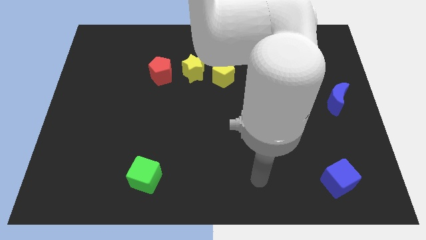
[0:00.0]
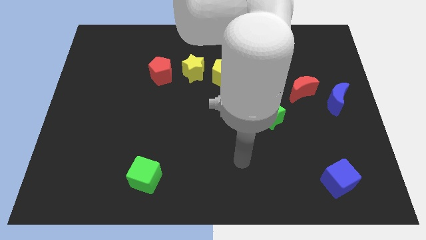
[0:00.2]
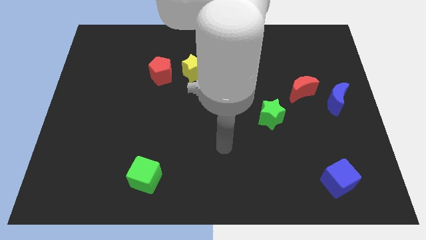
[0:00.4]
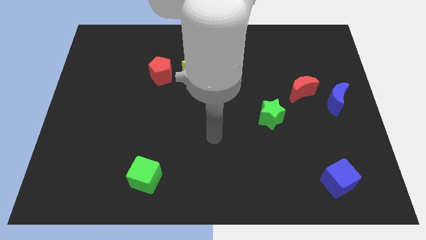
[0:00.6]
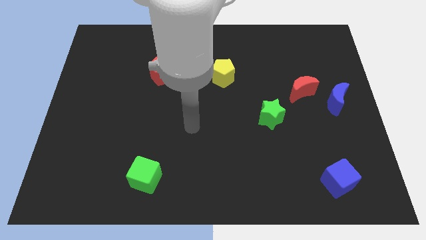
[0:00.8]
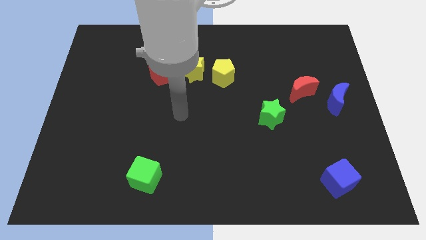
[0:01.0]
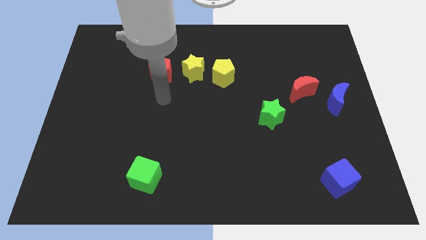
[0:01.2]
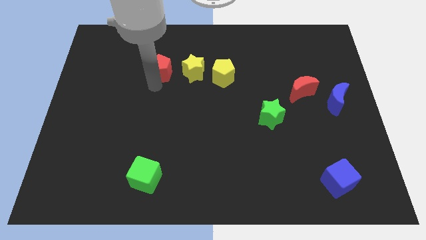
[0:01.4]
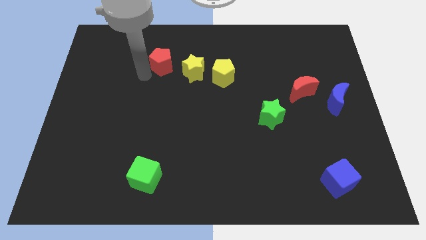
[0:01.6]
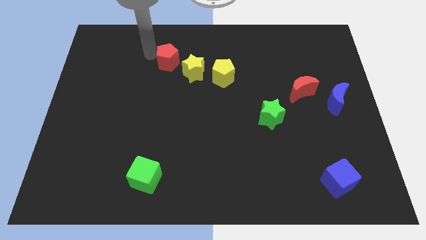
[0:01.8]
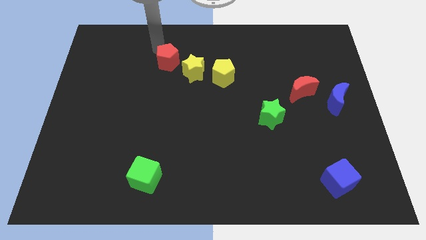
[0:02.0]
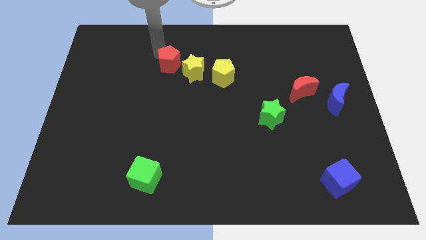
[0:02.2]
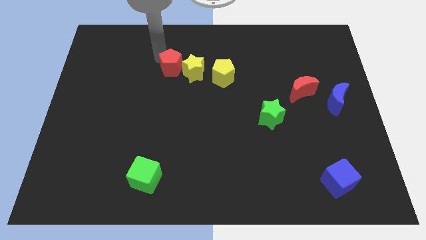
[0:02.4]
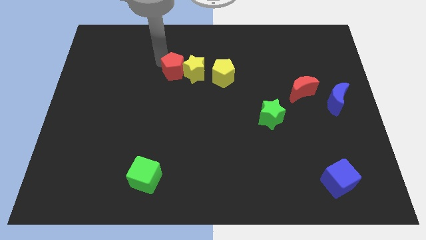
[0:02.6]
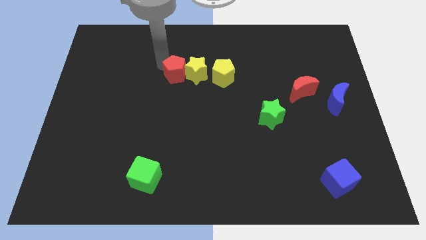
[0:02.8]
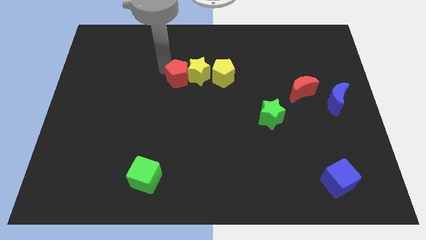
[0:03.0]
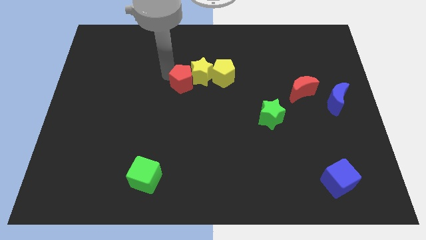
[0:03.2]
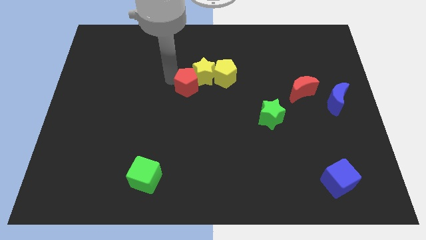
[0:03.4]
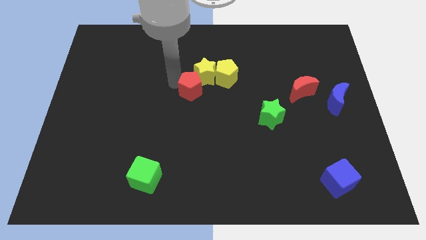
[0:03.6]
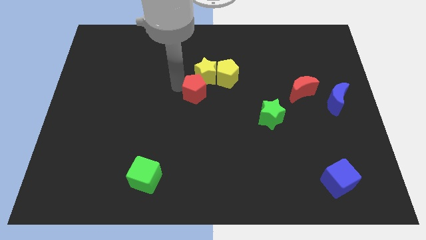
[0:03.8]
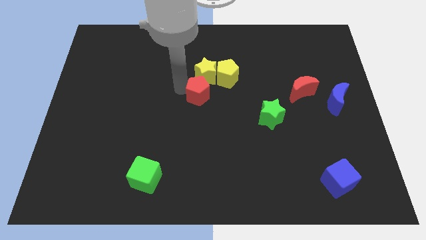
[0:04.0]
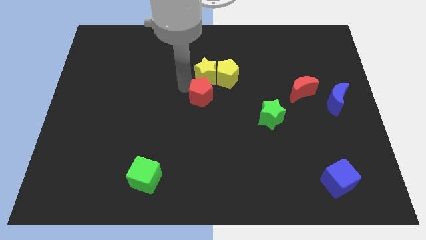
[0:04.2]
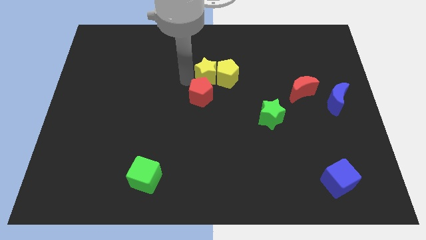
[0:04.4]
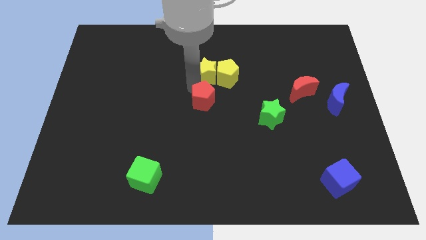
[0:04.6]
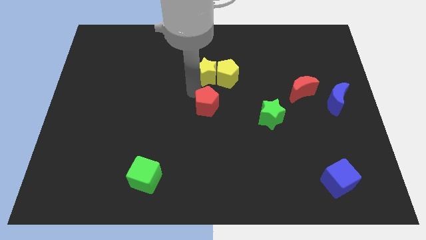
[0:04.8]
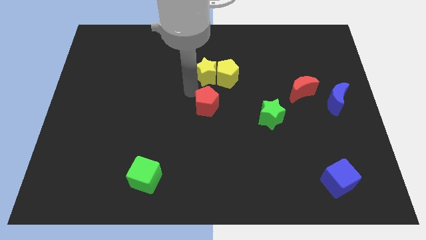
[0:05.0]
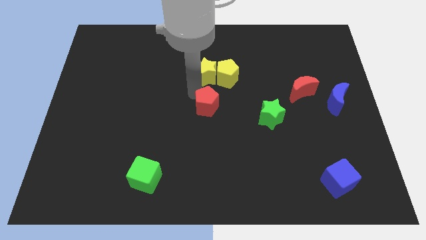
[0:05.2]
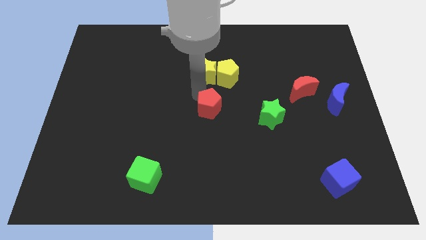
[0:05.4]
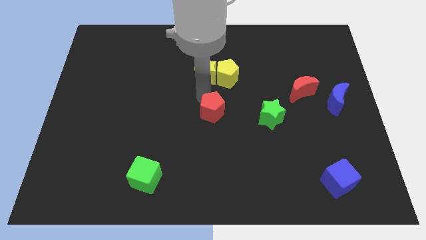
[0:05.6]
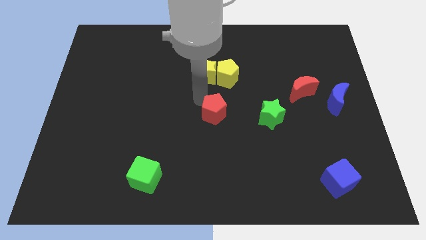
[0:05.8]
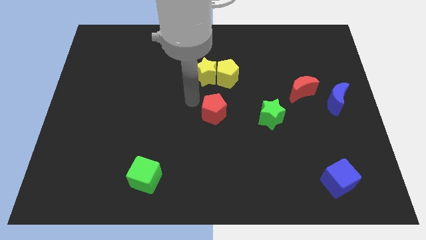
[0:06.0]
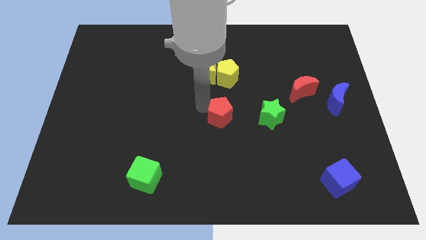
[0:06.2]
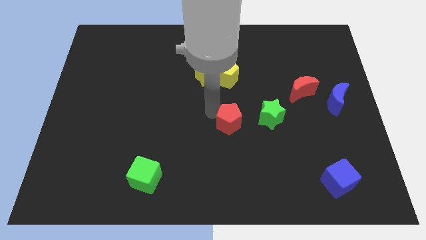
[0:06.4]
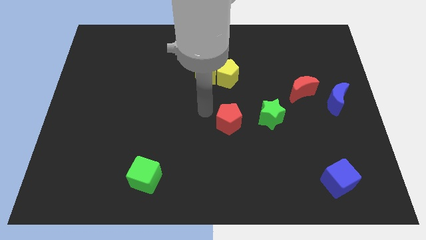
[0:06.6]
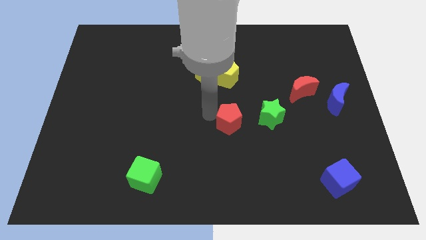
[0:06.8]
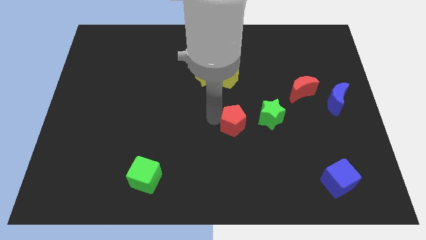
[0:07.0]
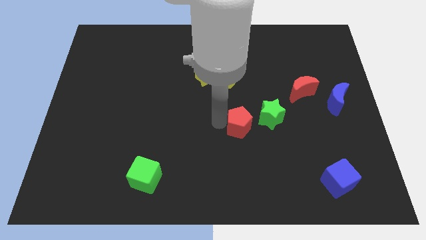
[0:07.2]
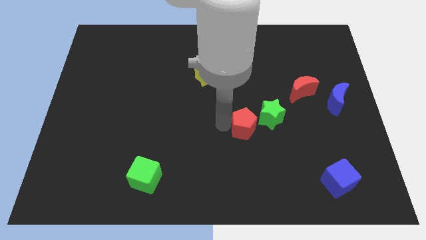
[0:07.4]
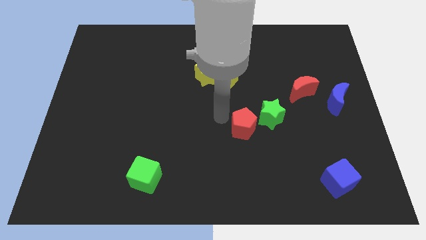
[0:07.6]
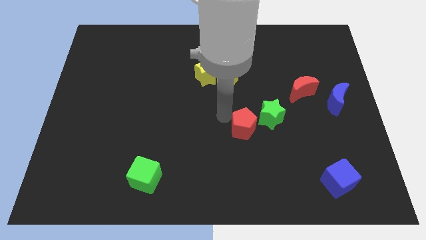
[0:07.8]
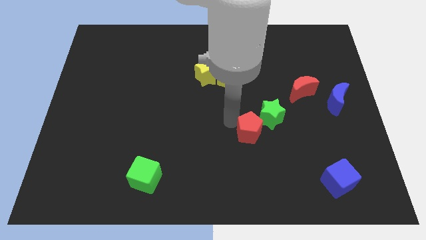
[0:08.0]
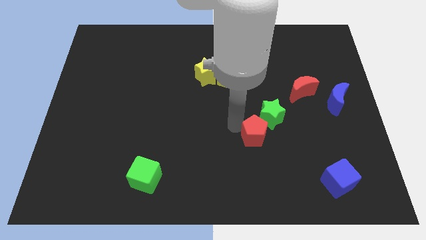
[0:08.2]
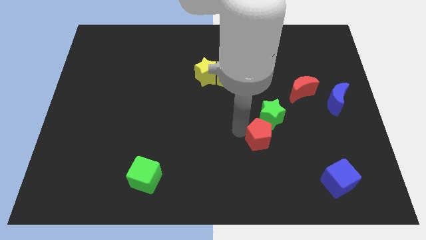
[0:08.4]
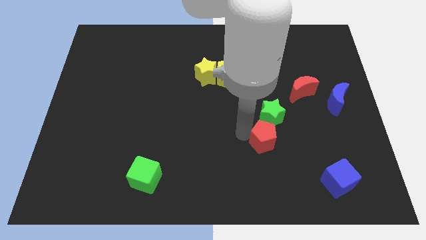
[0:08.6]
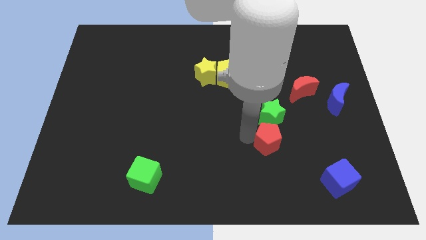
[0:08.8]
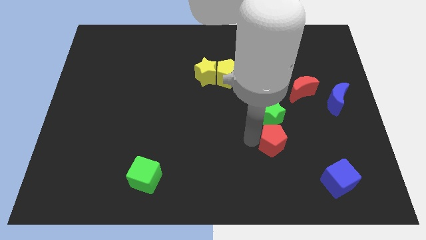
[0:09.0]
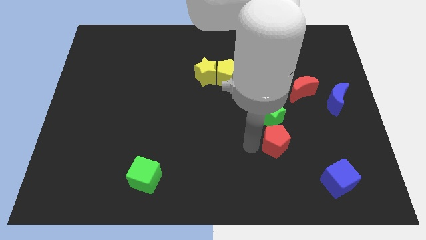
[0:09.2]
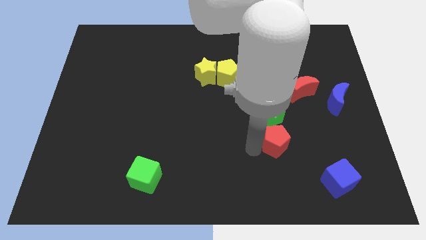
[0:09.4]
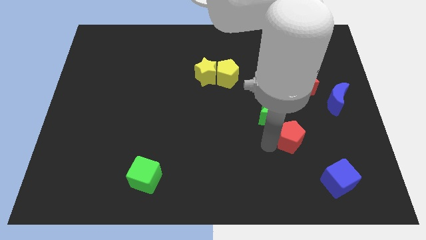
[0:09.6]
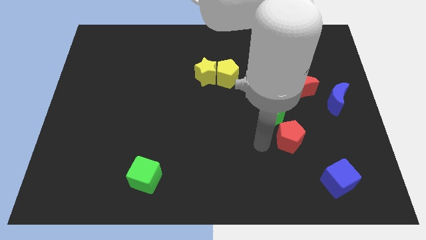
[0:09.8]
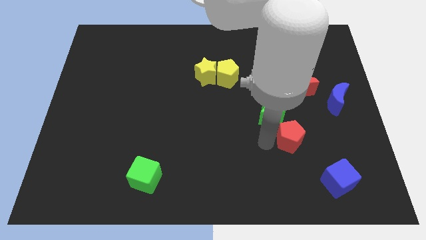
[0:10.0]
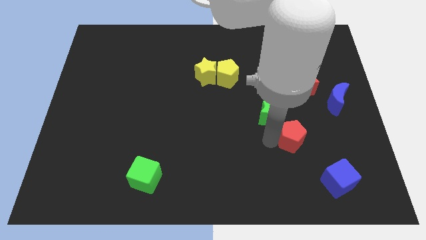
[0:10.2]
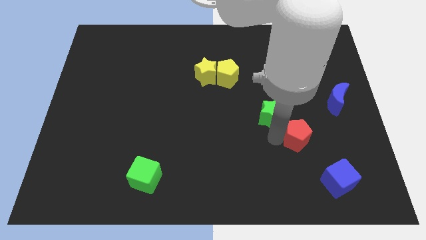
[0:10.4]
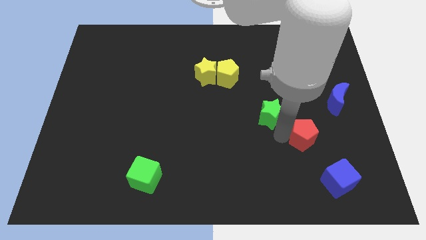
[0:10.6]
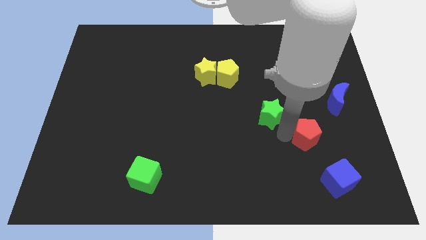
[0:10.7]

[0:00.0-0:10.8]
move the red pentagon above the blue cube
